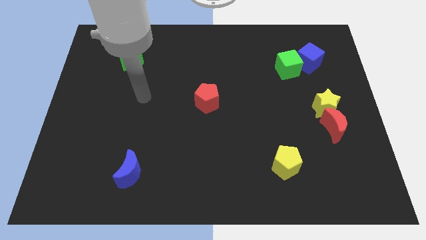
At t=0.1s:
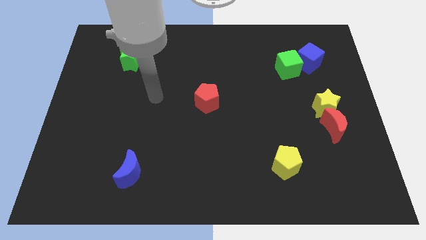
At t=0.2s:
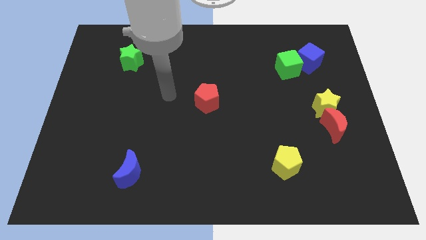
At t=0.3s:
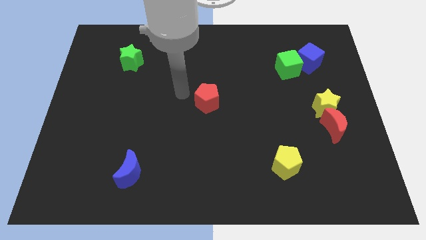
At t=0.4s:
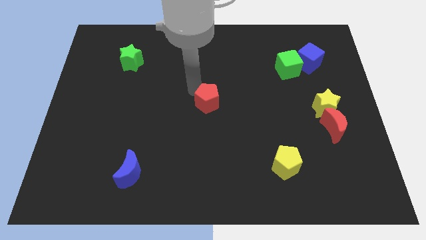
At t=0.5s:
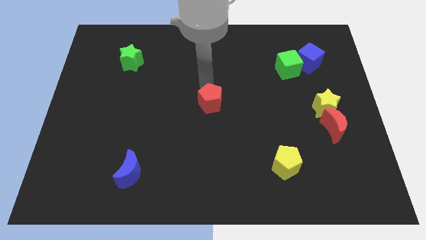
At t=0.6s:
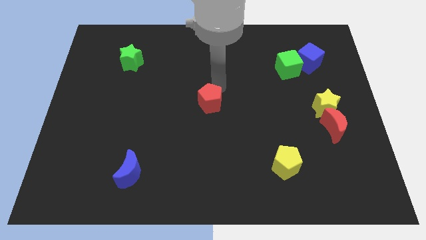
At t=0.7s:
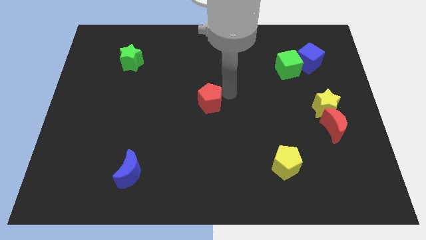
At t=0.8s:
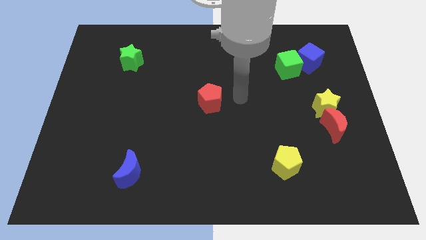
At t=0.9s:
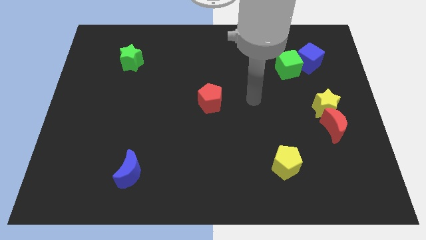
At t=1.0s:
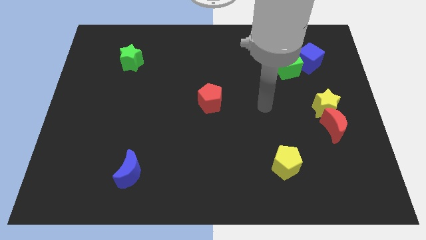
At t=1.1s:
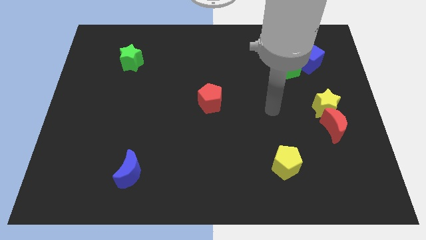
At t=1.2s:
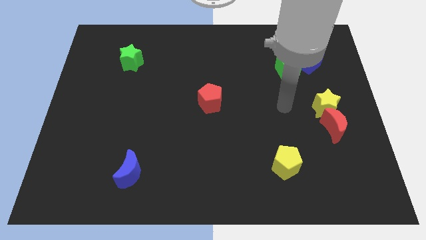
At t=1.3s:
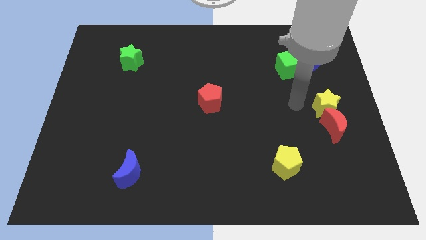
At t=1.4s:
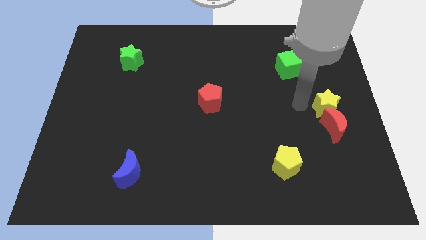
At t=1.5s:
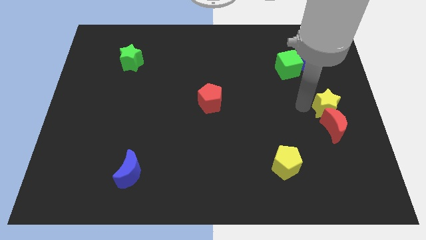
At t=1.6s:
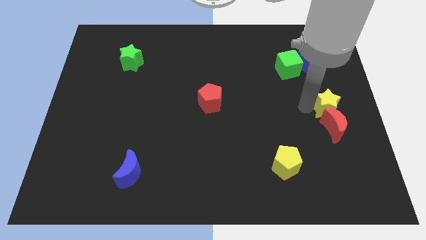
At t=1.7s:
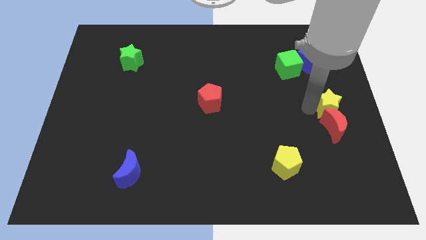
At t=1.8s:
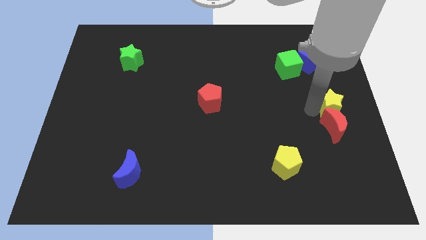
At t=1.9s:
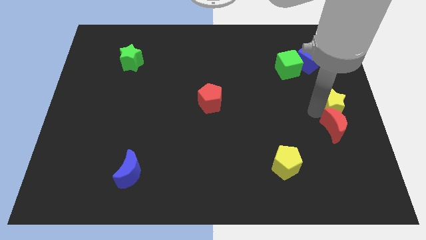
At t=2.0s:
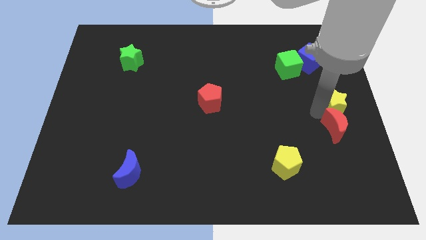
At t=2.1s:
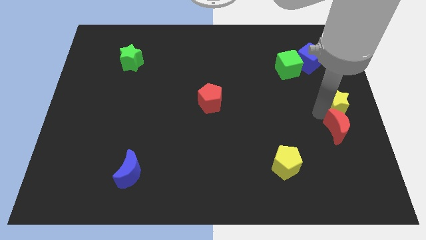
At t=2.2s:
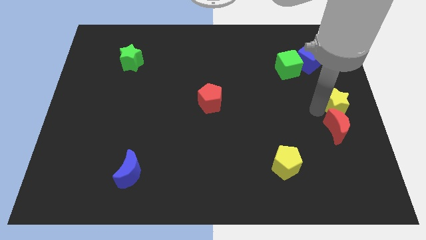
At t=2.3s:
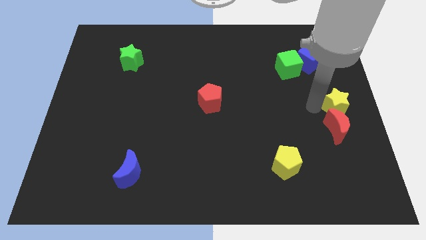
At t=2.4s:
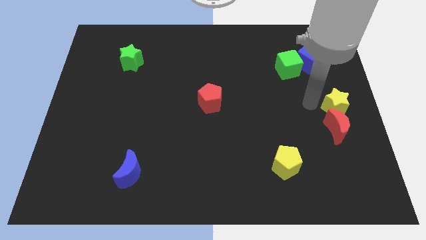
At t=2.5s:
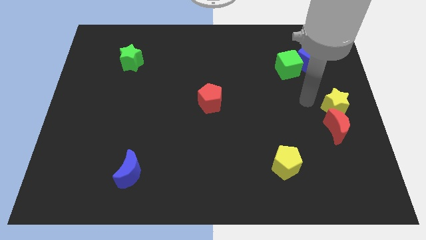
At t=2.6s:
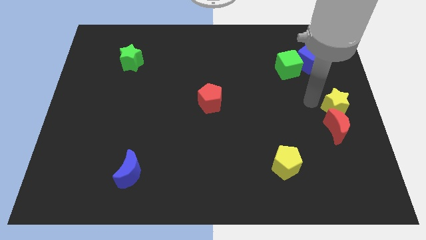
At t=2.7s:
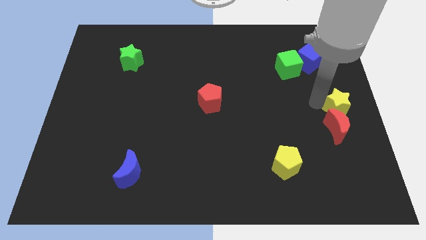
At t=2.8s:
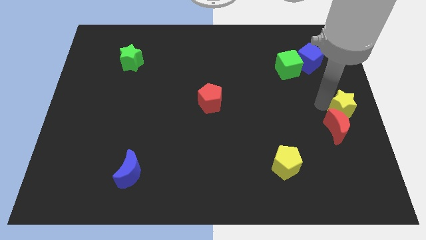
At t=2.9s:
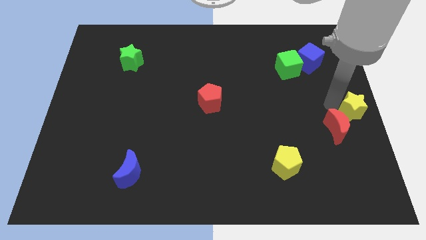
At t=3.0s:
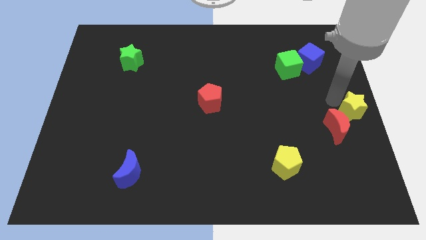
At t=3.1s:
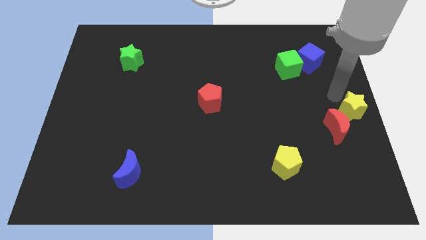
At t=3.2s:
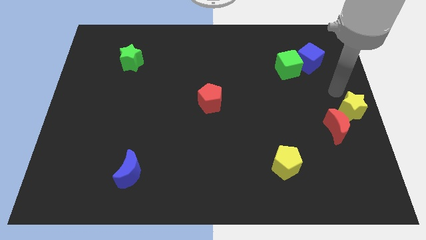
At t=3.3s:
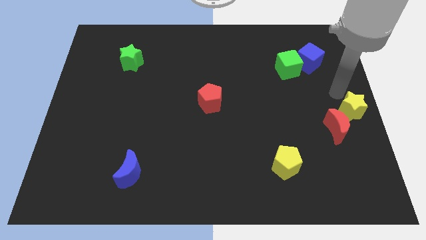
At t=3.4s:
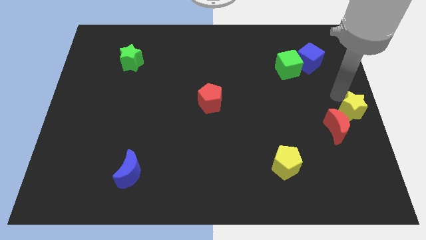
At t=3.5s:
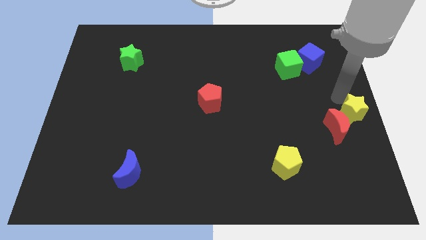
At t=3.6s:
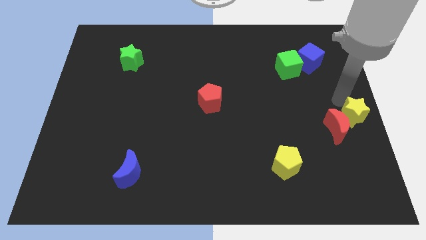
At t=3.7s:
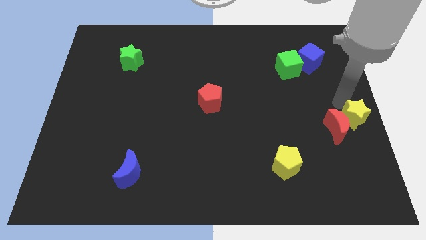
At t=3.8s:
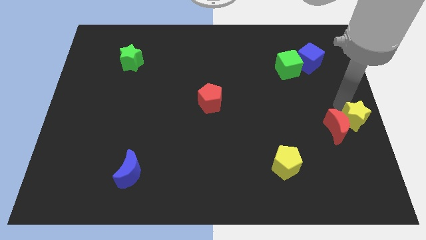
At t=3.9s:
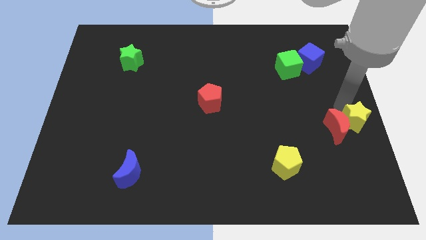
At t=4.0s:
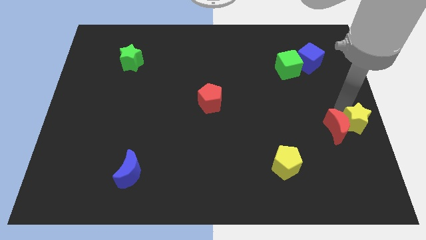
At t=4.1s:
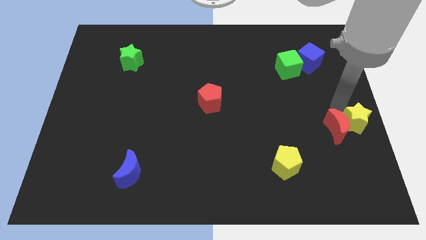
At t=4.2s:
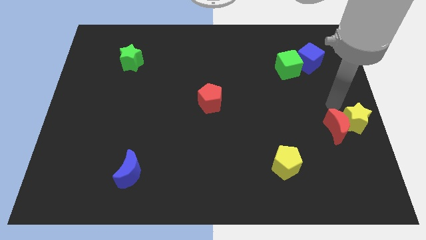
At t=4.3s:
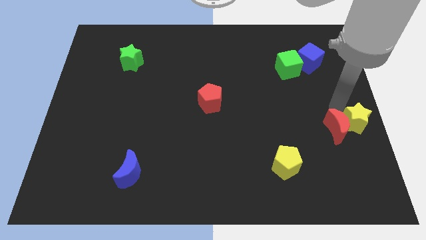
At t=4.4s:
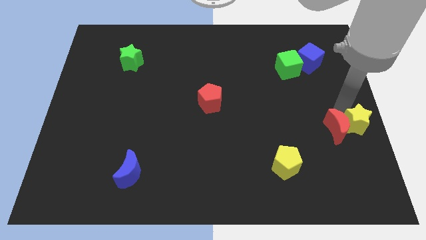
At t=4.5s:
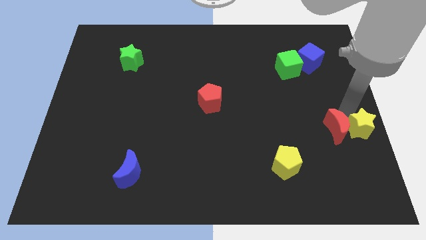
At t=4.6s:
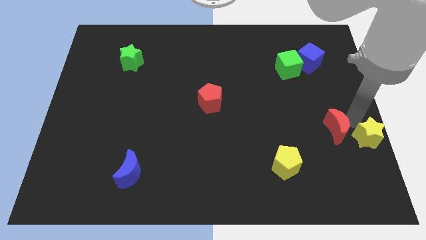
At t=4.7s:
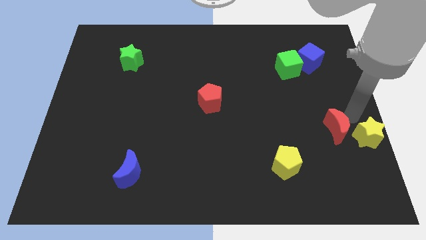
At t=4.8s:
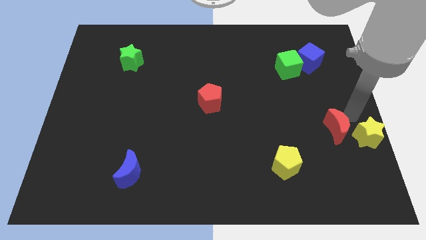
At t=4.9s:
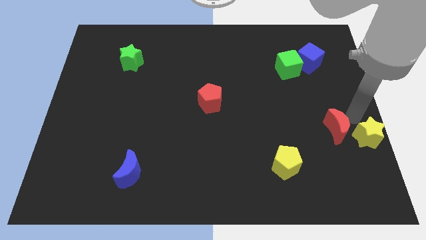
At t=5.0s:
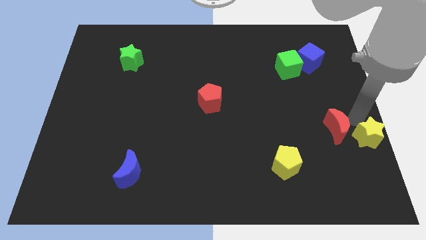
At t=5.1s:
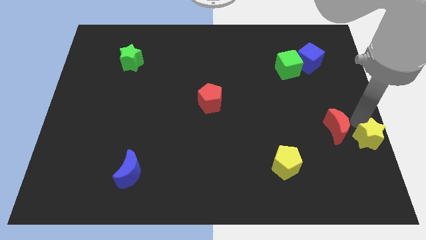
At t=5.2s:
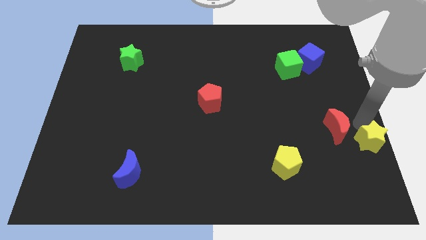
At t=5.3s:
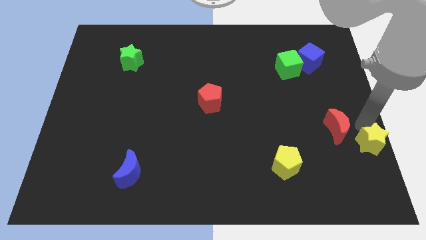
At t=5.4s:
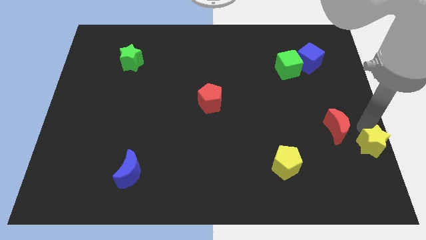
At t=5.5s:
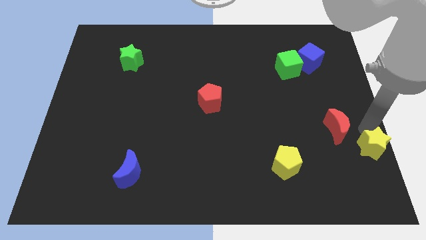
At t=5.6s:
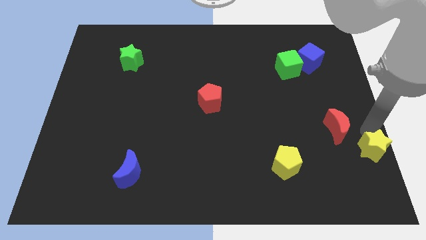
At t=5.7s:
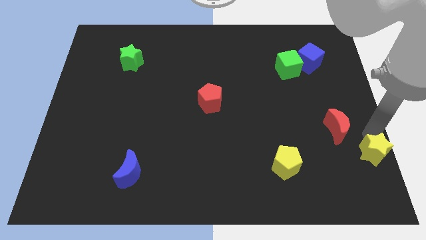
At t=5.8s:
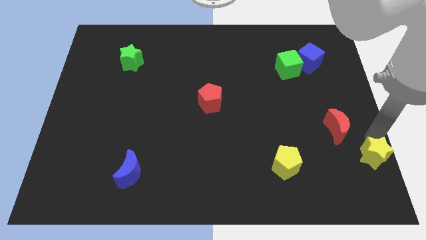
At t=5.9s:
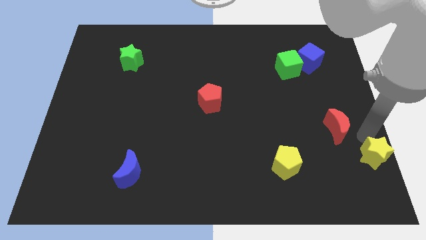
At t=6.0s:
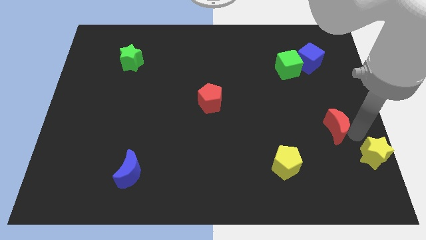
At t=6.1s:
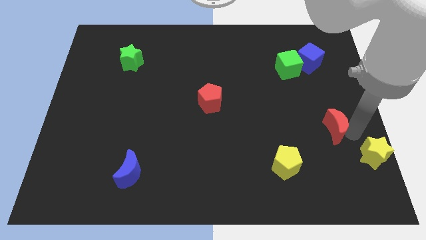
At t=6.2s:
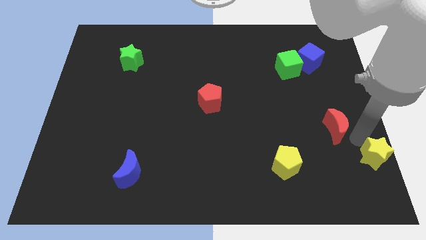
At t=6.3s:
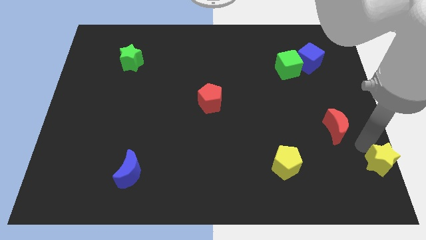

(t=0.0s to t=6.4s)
move the yellow star to the lower right corner

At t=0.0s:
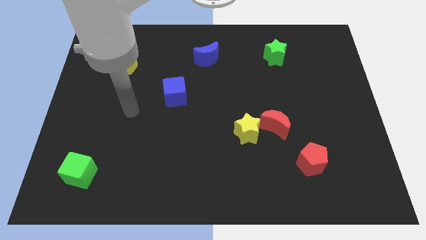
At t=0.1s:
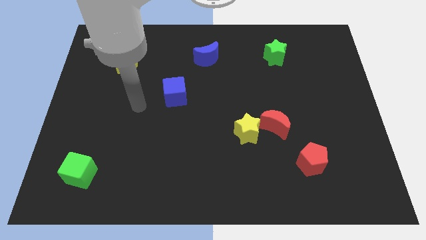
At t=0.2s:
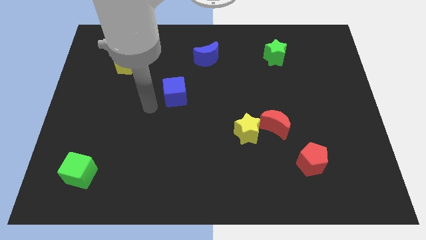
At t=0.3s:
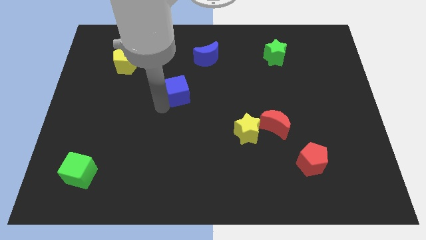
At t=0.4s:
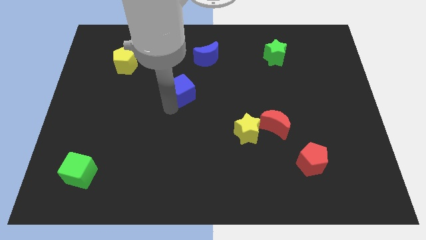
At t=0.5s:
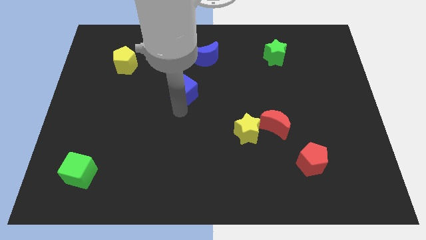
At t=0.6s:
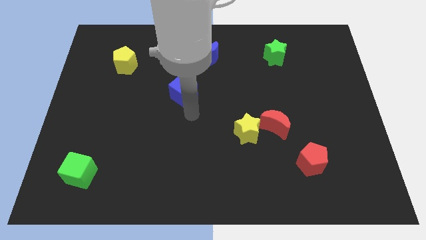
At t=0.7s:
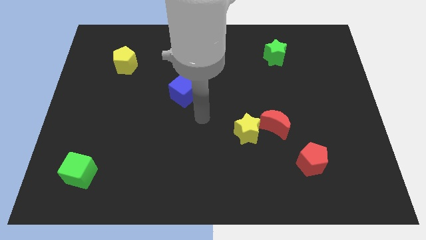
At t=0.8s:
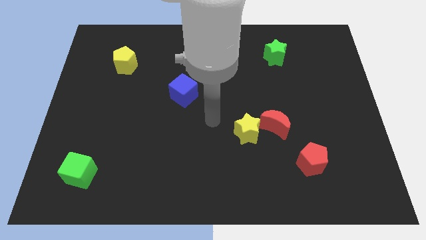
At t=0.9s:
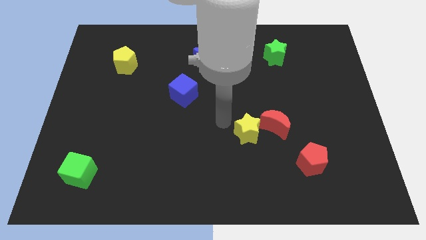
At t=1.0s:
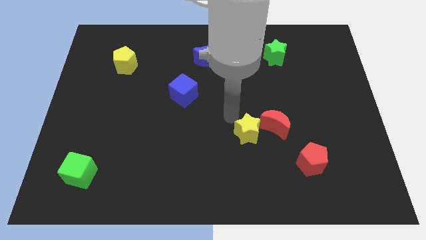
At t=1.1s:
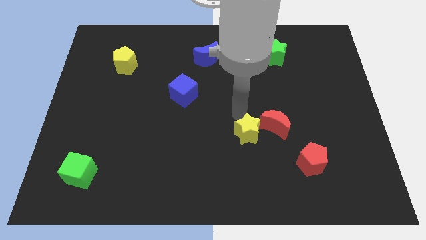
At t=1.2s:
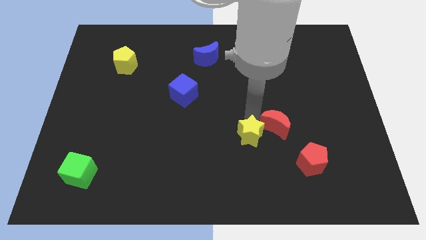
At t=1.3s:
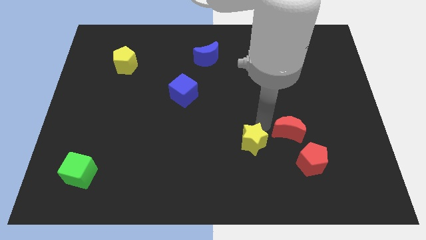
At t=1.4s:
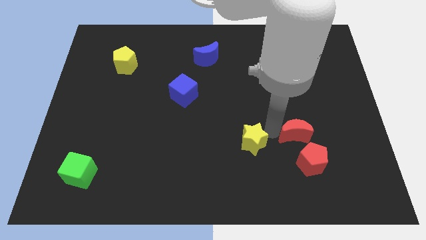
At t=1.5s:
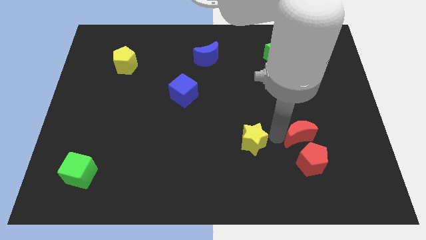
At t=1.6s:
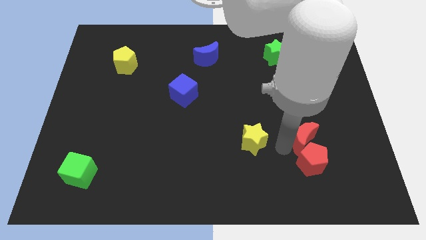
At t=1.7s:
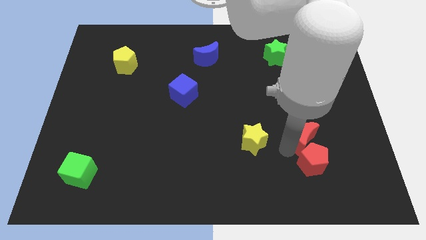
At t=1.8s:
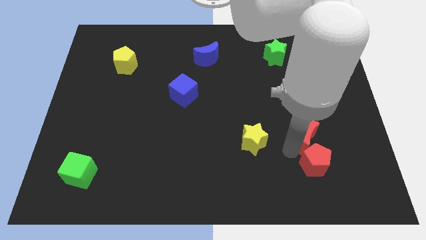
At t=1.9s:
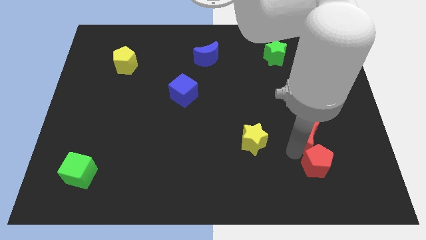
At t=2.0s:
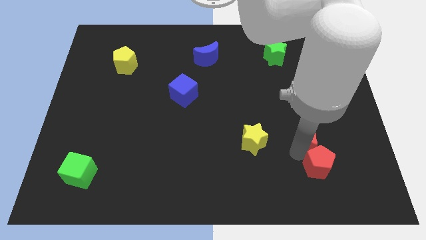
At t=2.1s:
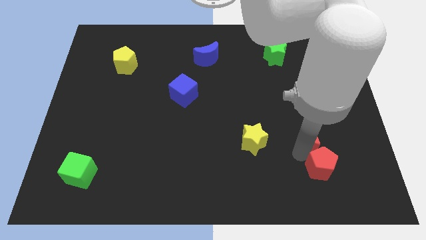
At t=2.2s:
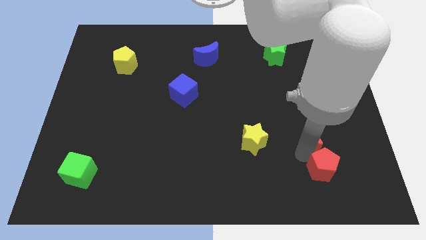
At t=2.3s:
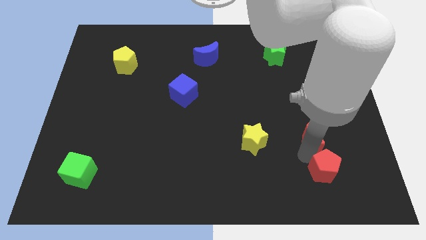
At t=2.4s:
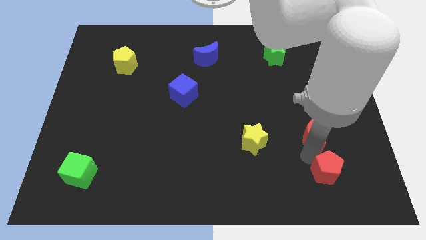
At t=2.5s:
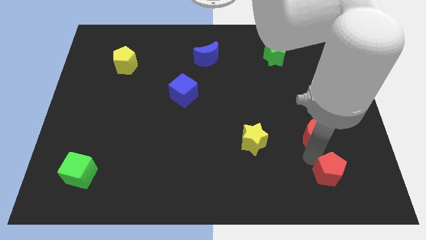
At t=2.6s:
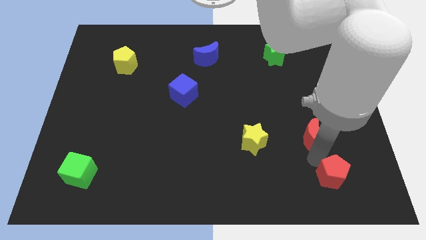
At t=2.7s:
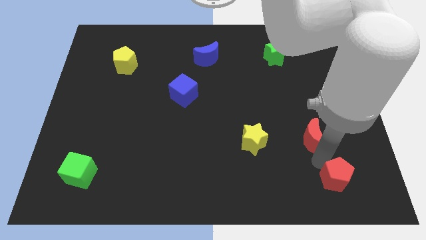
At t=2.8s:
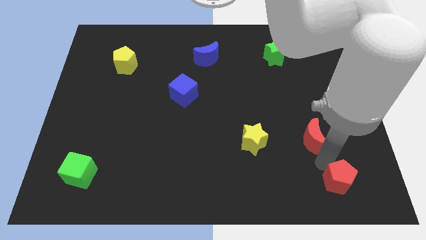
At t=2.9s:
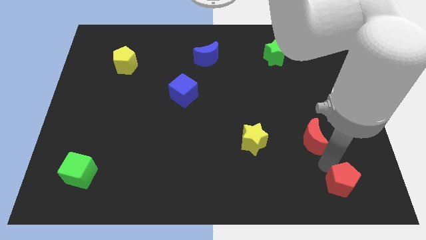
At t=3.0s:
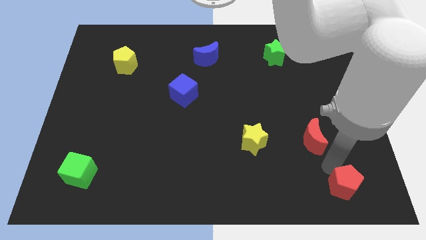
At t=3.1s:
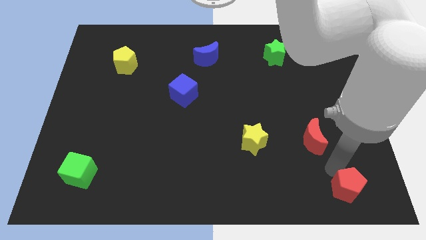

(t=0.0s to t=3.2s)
push the red pentagon to the lower right corner
